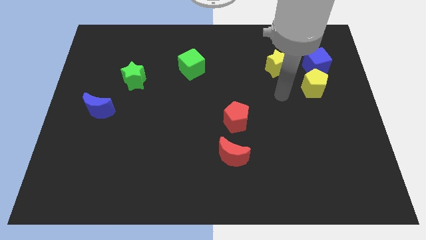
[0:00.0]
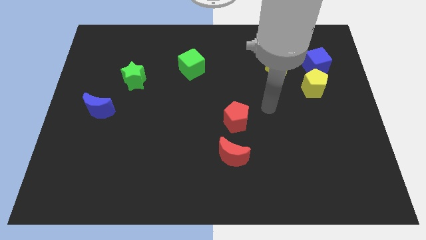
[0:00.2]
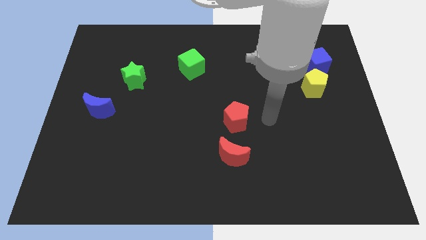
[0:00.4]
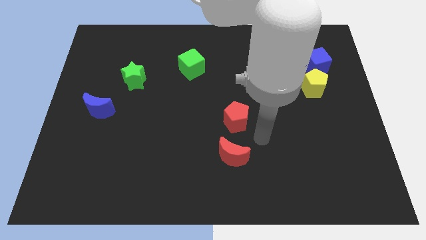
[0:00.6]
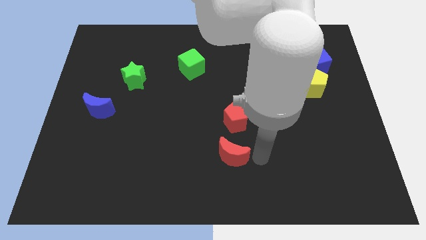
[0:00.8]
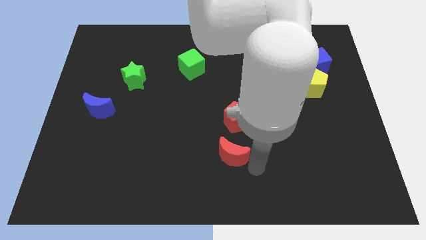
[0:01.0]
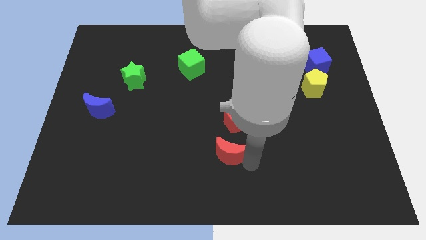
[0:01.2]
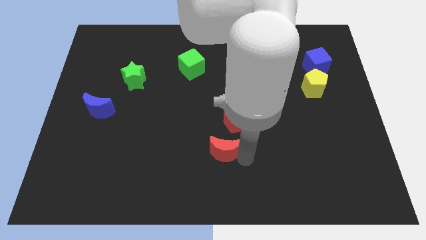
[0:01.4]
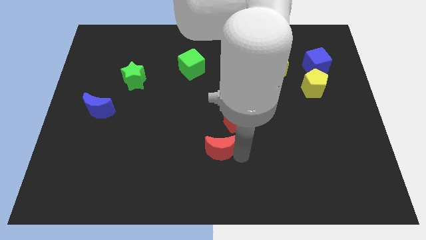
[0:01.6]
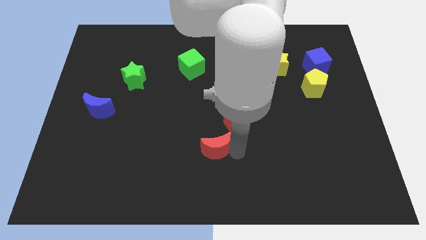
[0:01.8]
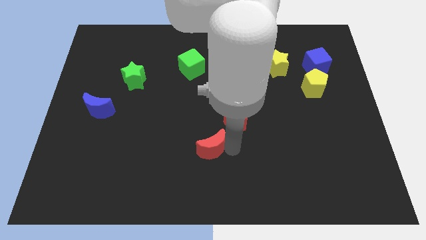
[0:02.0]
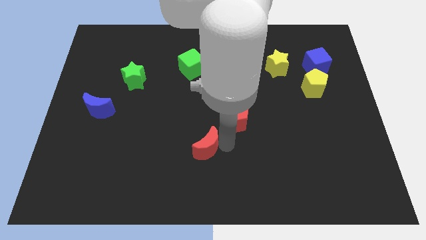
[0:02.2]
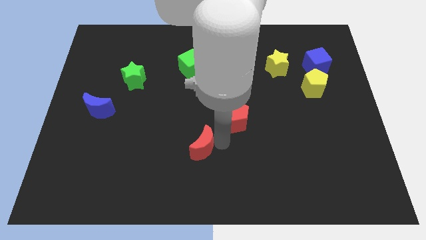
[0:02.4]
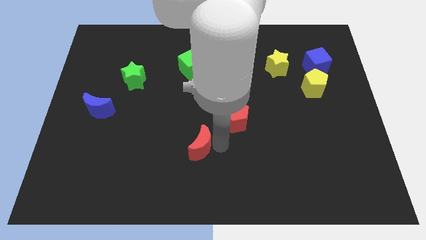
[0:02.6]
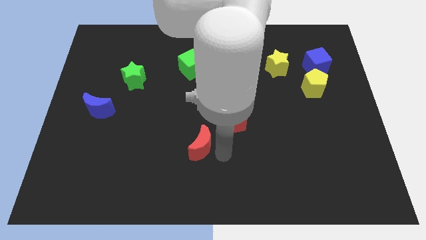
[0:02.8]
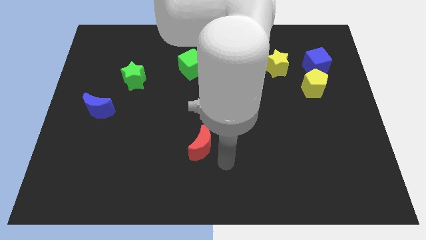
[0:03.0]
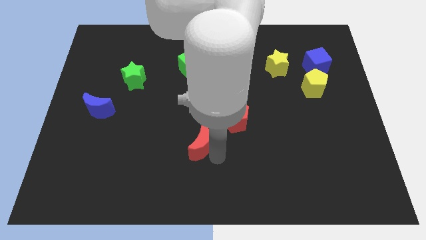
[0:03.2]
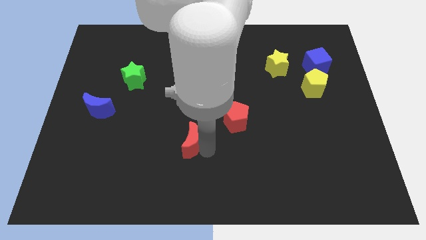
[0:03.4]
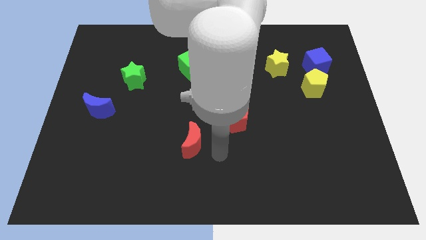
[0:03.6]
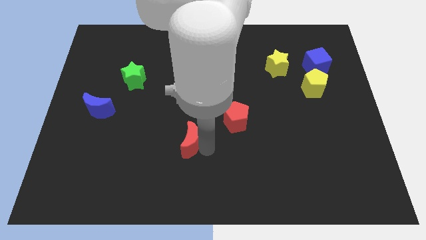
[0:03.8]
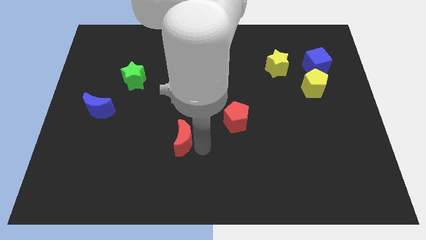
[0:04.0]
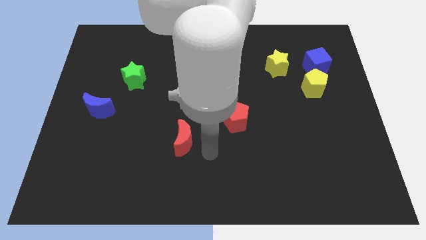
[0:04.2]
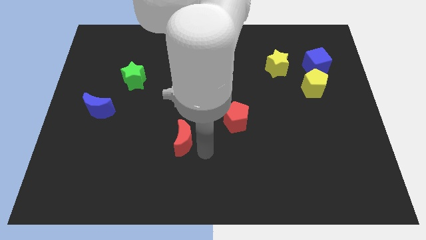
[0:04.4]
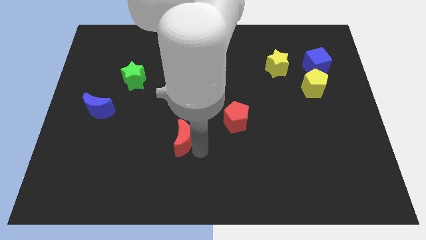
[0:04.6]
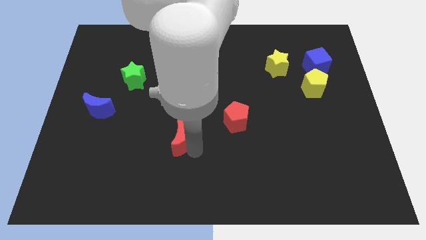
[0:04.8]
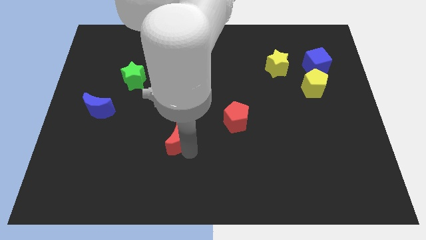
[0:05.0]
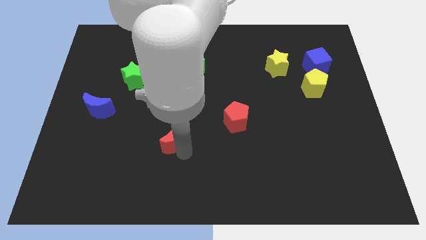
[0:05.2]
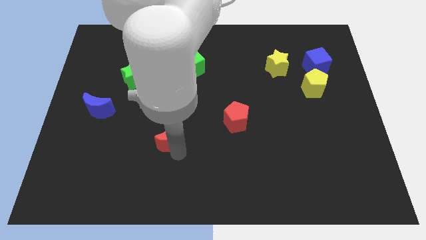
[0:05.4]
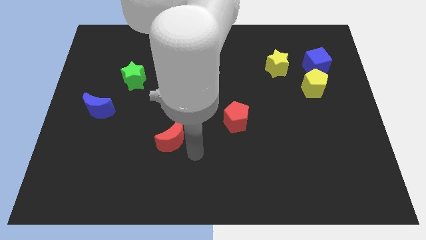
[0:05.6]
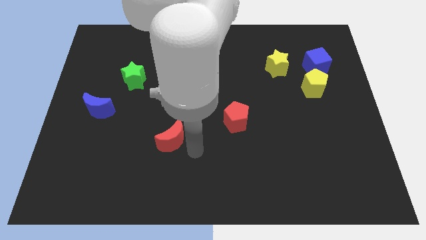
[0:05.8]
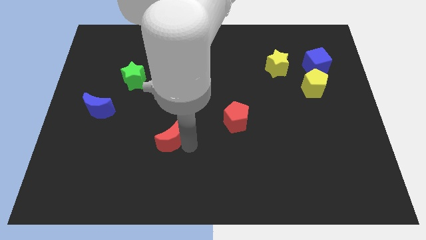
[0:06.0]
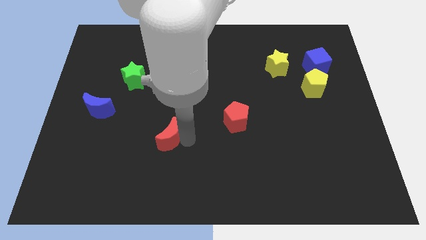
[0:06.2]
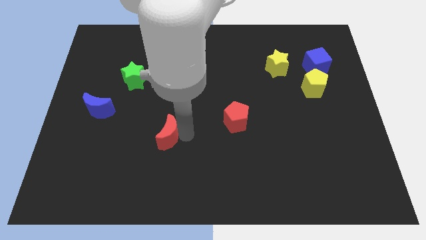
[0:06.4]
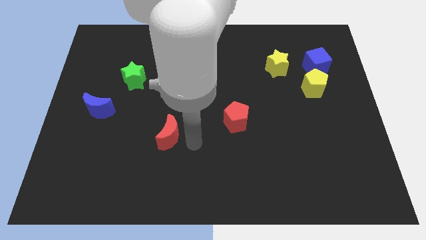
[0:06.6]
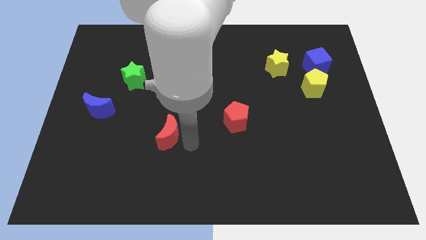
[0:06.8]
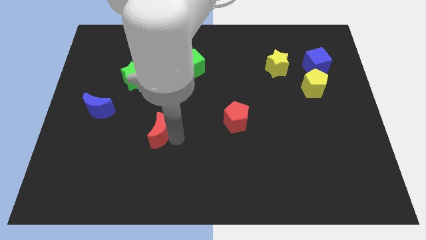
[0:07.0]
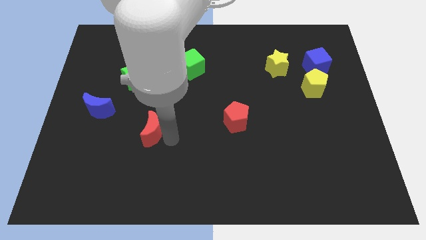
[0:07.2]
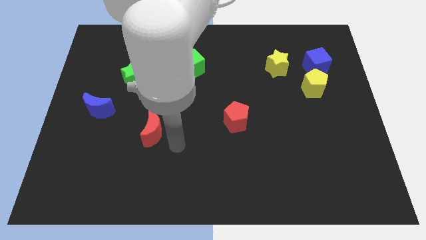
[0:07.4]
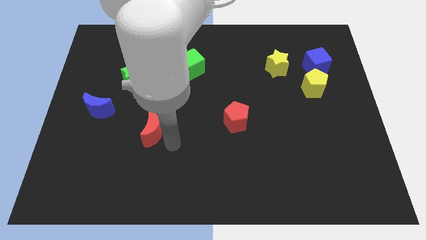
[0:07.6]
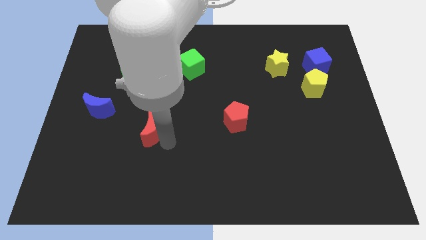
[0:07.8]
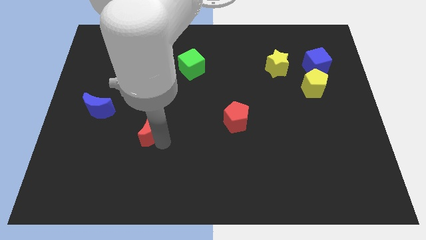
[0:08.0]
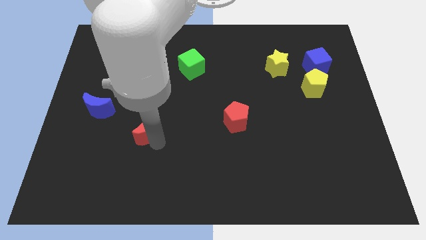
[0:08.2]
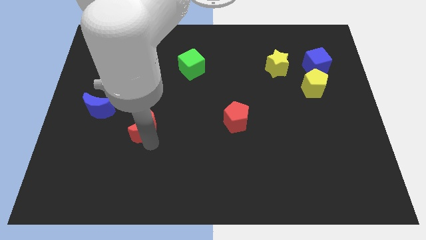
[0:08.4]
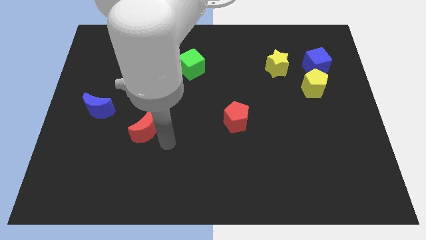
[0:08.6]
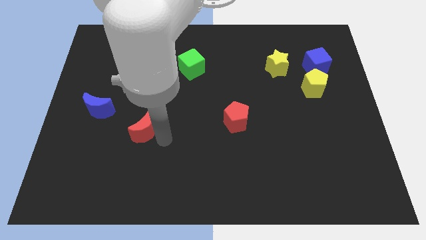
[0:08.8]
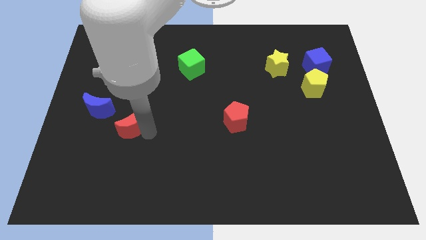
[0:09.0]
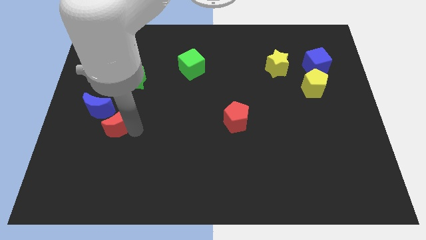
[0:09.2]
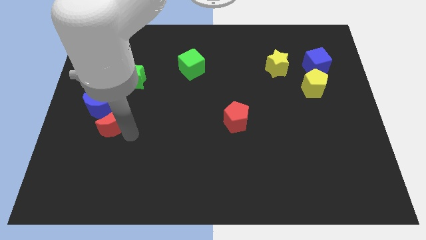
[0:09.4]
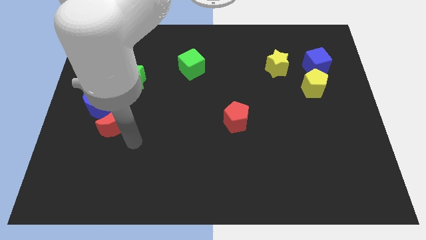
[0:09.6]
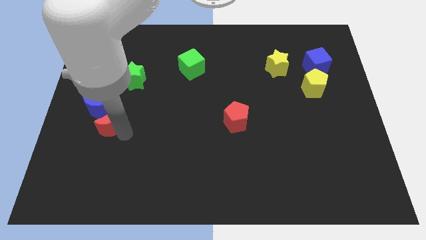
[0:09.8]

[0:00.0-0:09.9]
push the red moon next to the blue moon

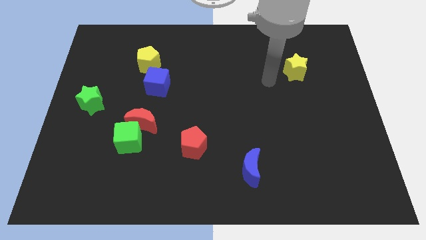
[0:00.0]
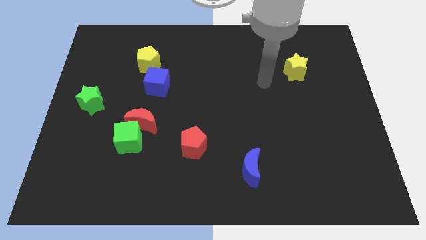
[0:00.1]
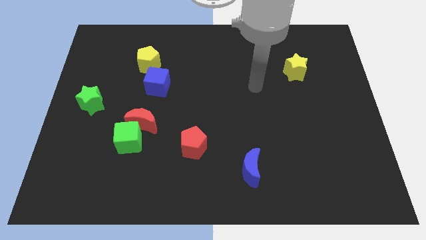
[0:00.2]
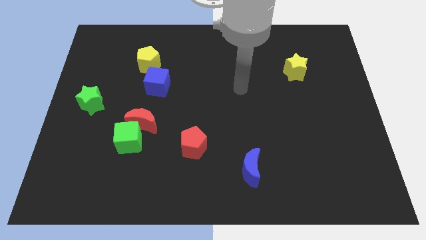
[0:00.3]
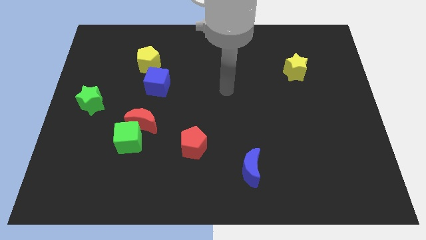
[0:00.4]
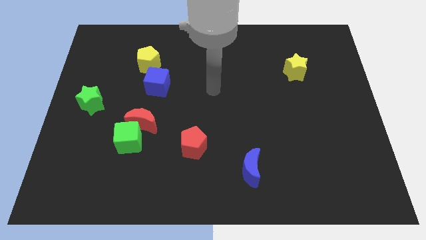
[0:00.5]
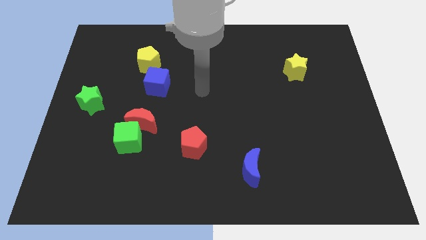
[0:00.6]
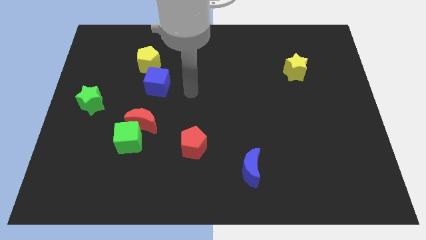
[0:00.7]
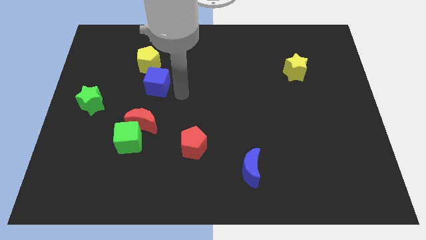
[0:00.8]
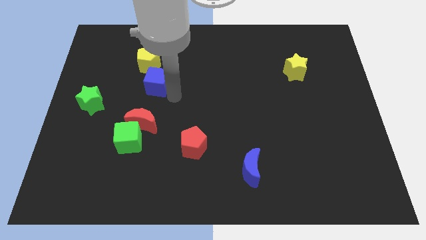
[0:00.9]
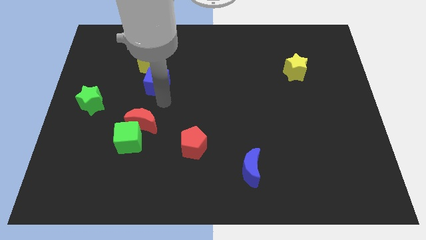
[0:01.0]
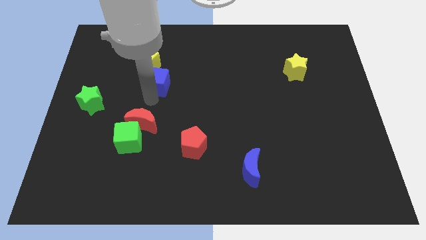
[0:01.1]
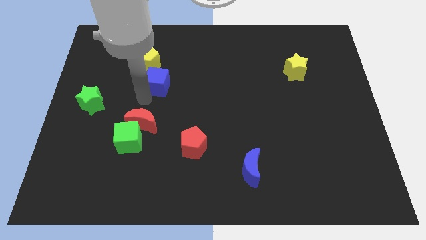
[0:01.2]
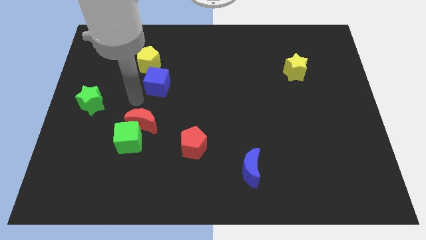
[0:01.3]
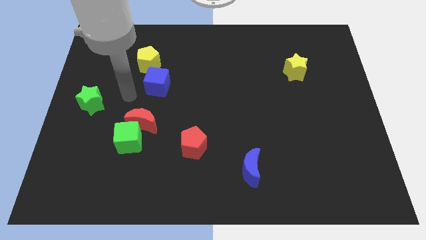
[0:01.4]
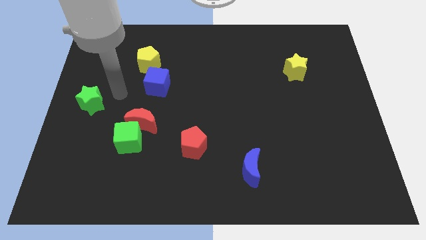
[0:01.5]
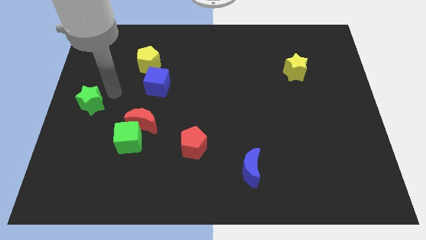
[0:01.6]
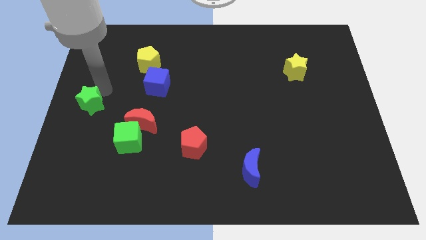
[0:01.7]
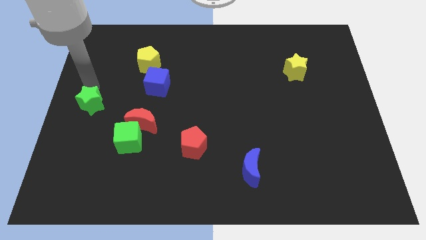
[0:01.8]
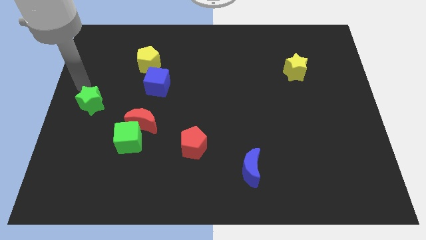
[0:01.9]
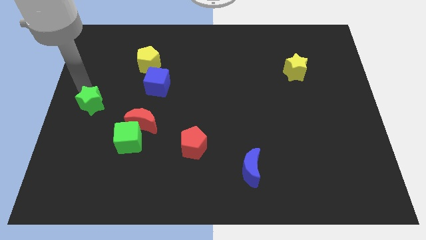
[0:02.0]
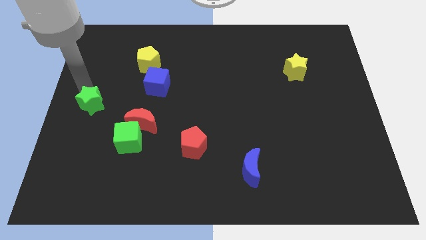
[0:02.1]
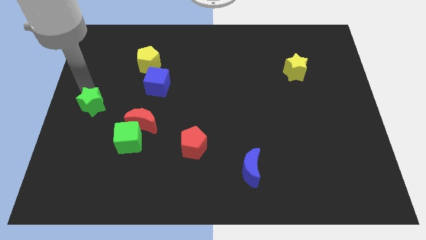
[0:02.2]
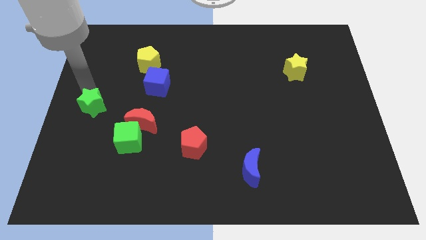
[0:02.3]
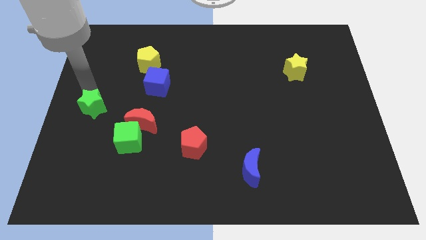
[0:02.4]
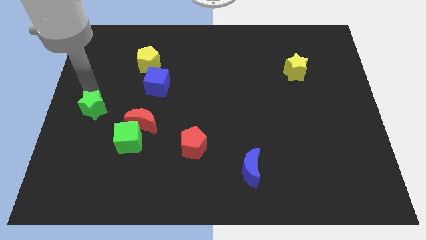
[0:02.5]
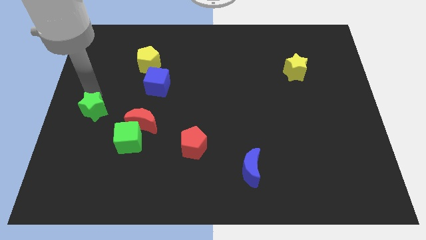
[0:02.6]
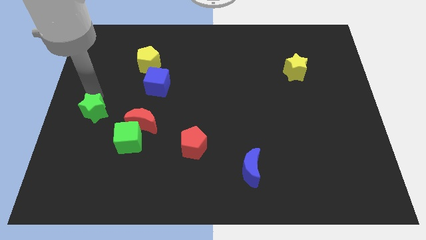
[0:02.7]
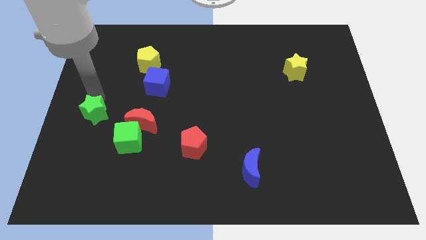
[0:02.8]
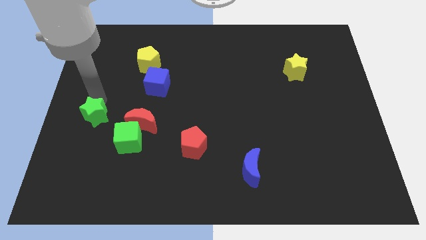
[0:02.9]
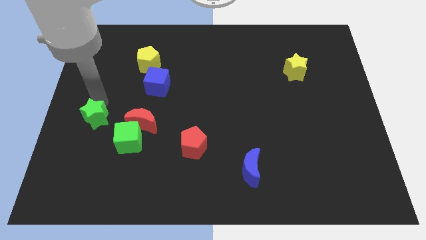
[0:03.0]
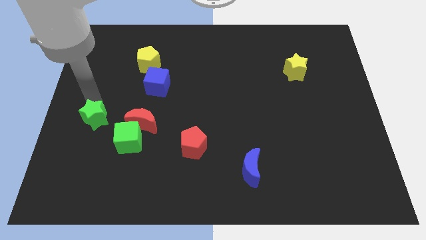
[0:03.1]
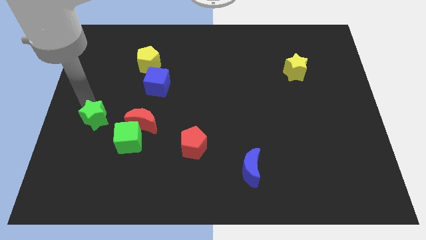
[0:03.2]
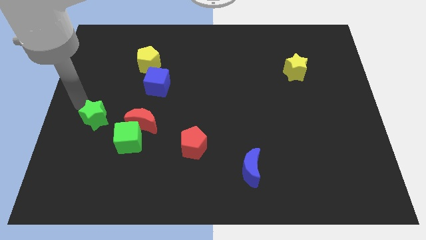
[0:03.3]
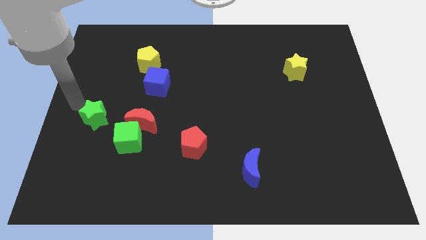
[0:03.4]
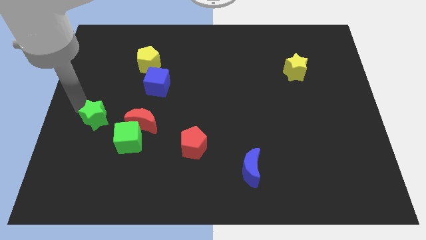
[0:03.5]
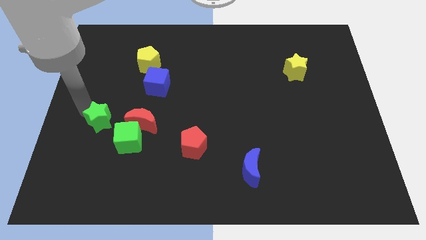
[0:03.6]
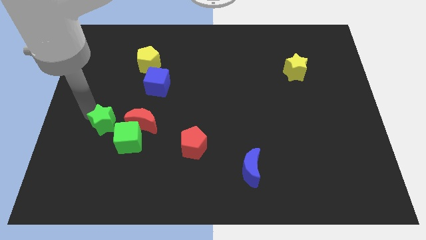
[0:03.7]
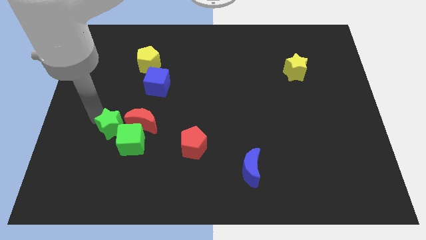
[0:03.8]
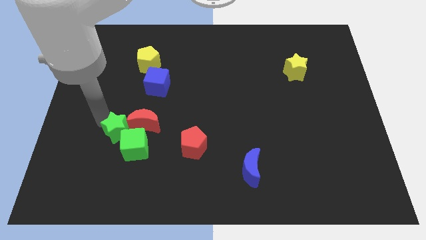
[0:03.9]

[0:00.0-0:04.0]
put the green star to the green cube
